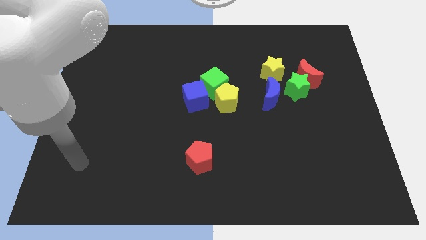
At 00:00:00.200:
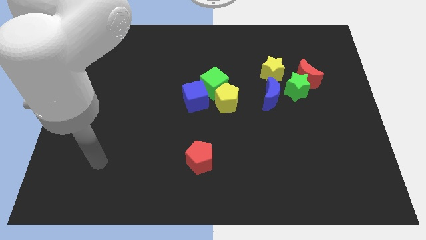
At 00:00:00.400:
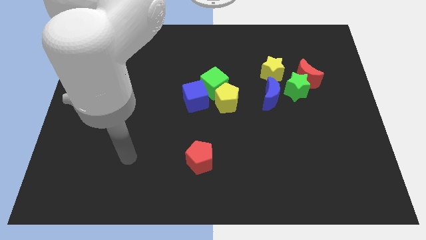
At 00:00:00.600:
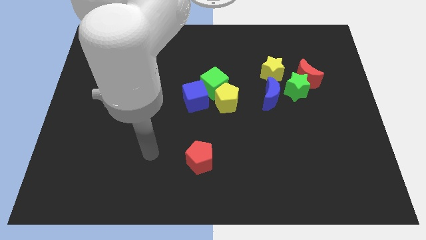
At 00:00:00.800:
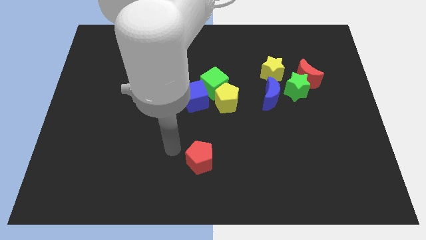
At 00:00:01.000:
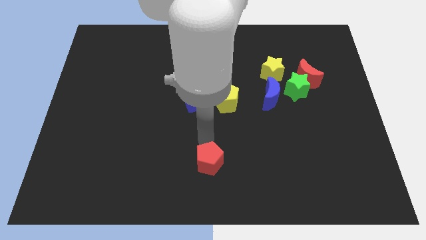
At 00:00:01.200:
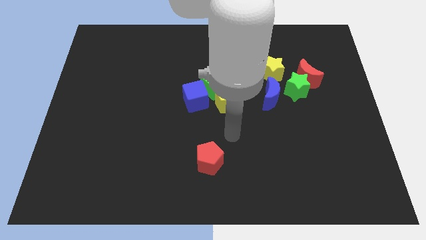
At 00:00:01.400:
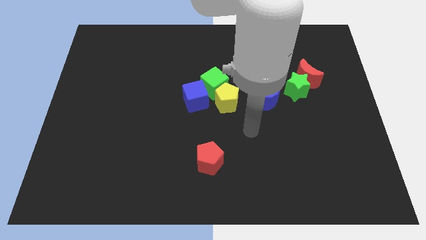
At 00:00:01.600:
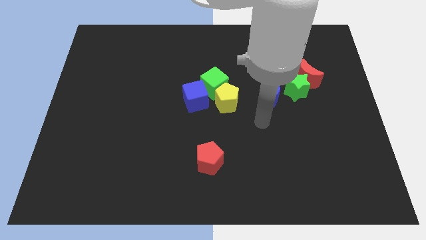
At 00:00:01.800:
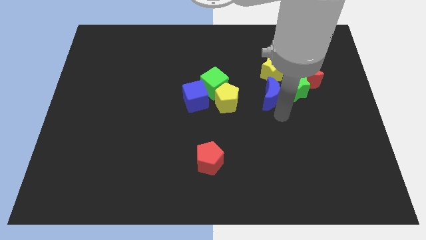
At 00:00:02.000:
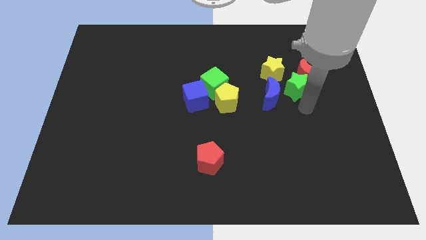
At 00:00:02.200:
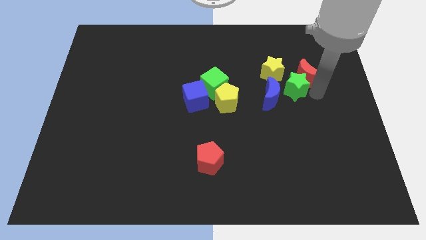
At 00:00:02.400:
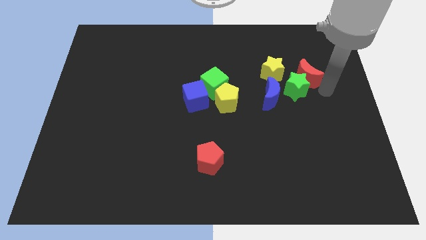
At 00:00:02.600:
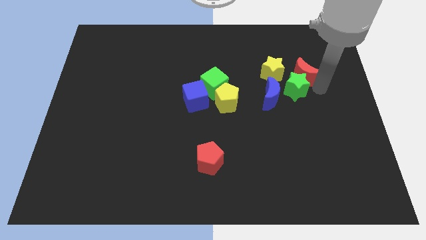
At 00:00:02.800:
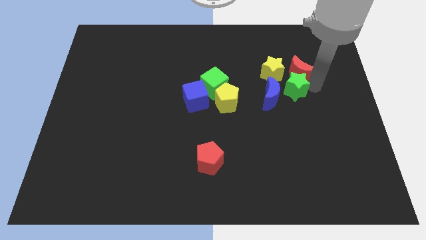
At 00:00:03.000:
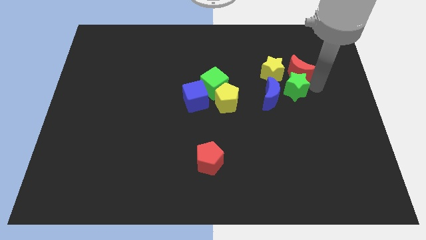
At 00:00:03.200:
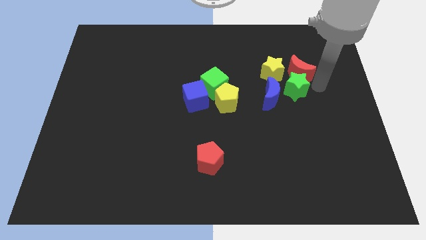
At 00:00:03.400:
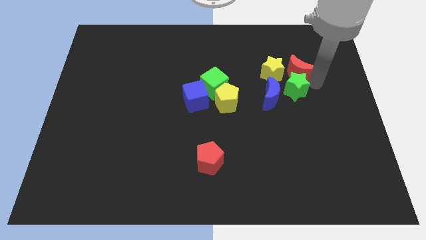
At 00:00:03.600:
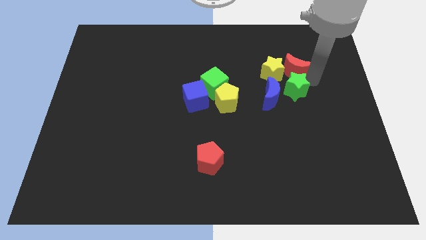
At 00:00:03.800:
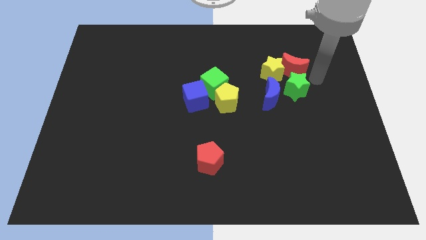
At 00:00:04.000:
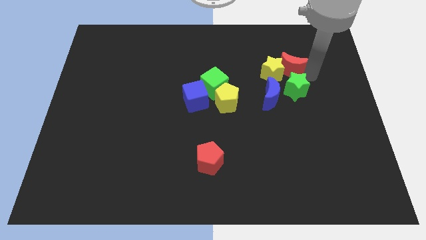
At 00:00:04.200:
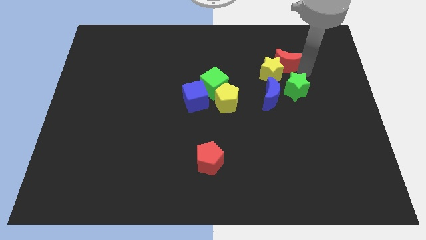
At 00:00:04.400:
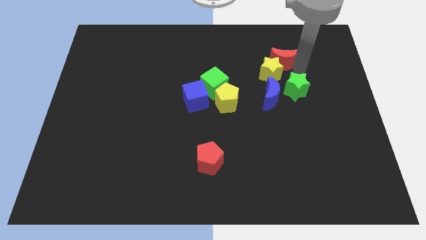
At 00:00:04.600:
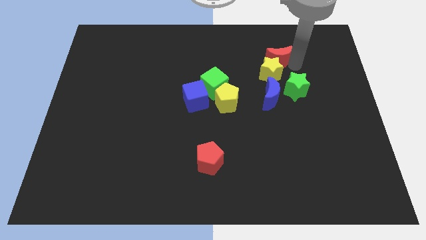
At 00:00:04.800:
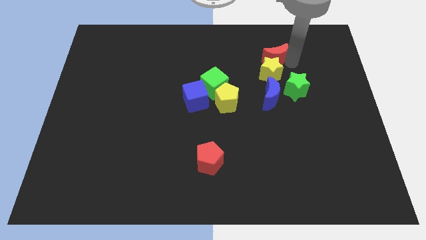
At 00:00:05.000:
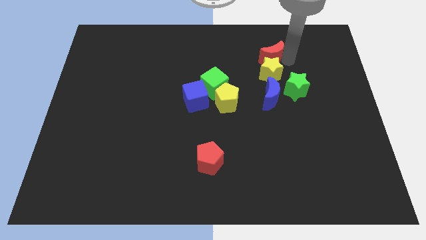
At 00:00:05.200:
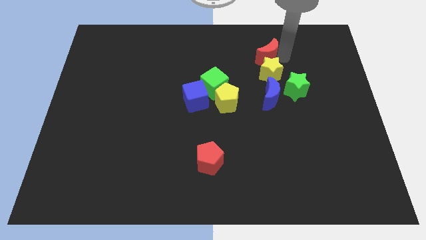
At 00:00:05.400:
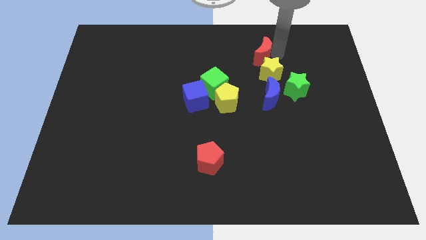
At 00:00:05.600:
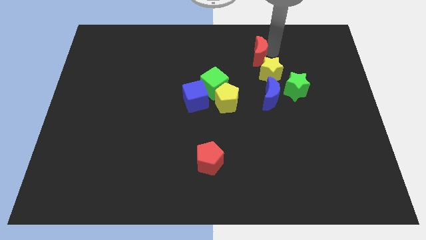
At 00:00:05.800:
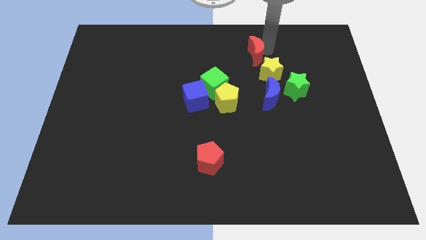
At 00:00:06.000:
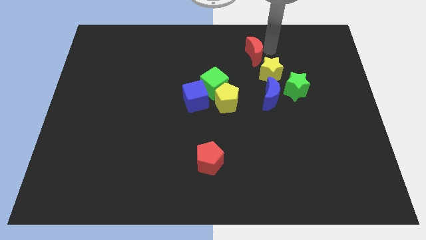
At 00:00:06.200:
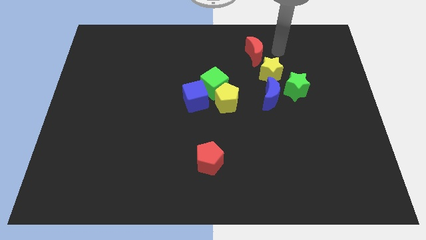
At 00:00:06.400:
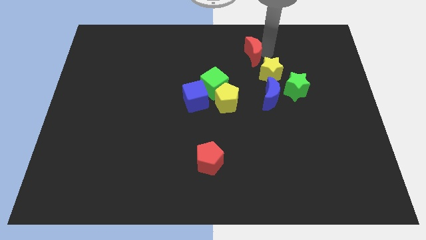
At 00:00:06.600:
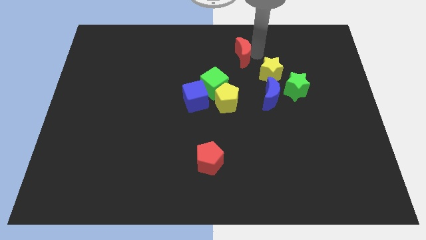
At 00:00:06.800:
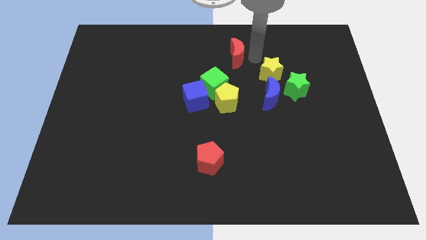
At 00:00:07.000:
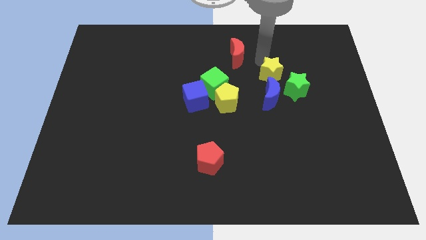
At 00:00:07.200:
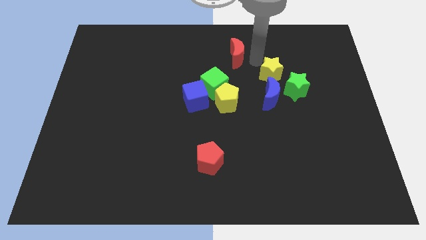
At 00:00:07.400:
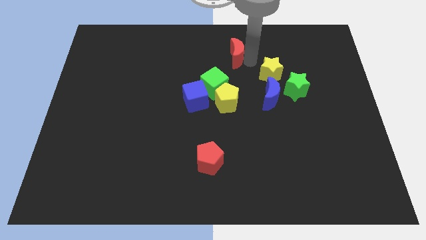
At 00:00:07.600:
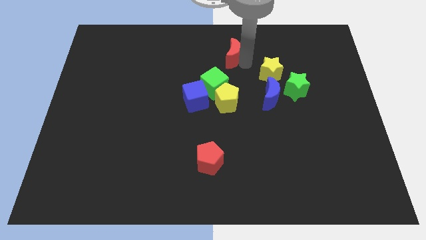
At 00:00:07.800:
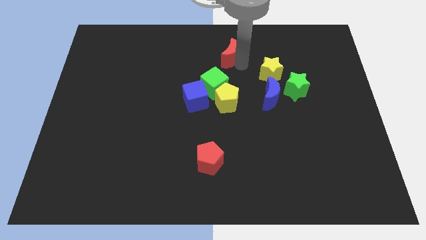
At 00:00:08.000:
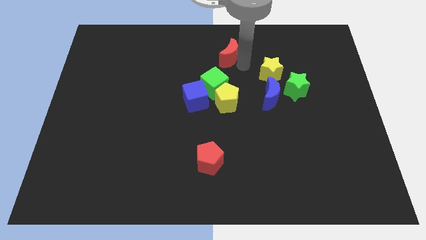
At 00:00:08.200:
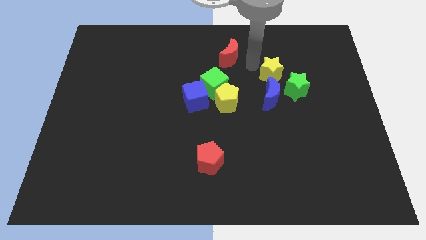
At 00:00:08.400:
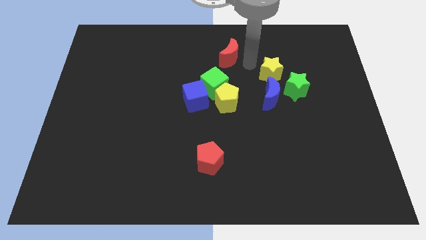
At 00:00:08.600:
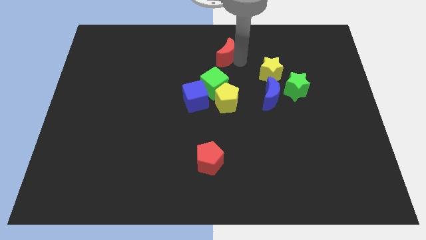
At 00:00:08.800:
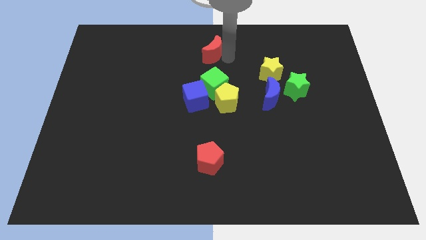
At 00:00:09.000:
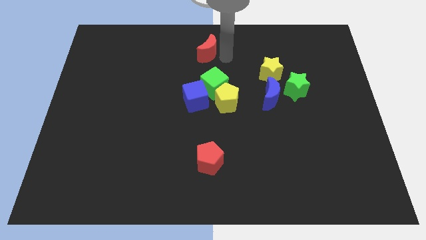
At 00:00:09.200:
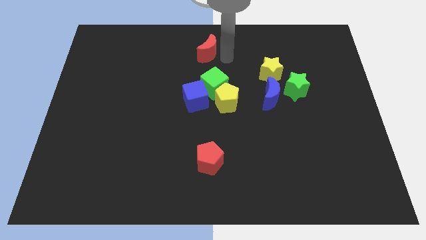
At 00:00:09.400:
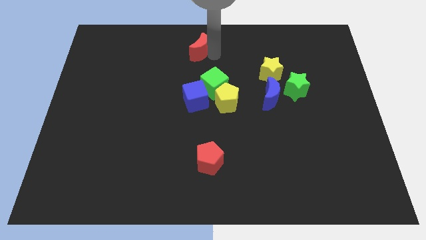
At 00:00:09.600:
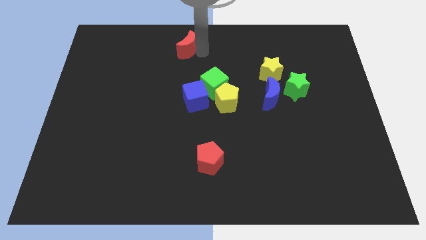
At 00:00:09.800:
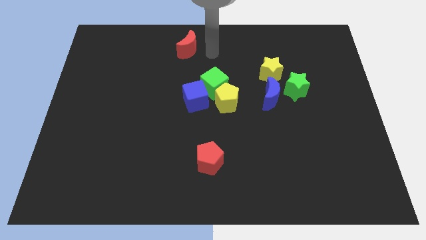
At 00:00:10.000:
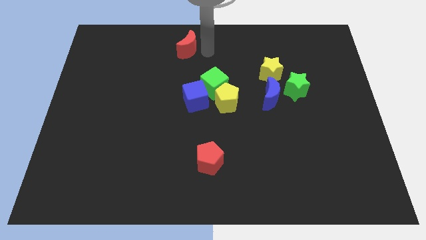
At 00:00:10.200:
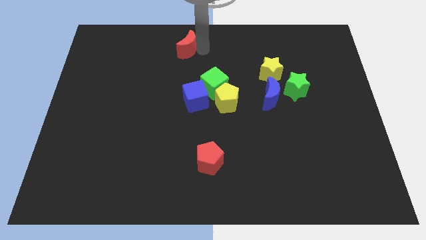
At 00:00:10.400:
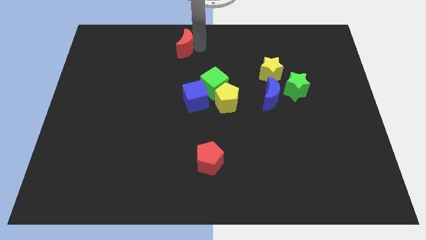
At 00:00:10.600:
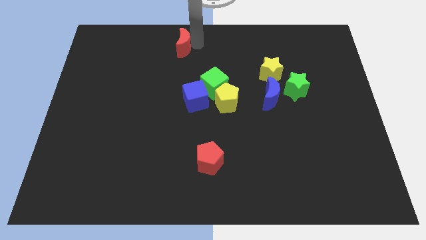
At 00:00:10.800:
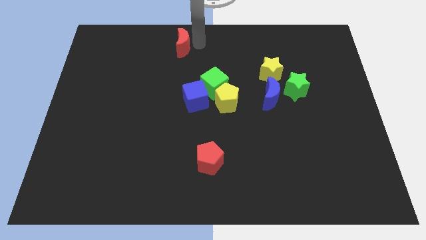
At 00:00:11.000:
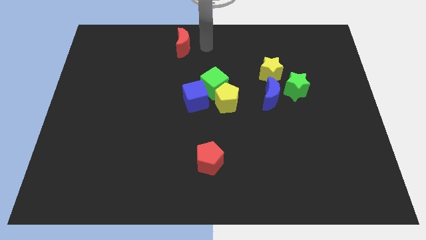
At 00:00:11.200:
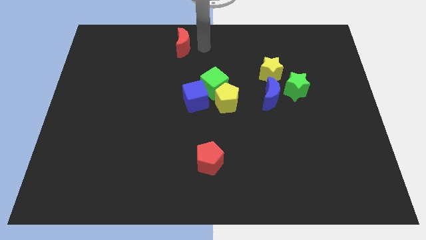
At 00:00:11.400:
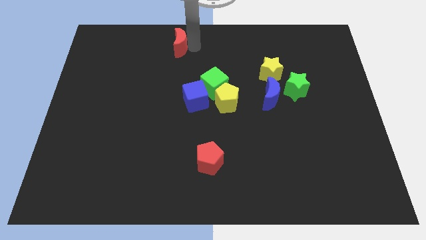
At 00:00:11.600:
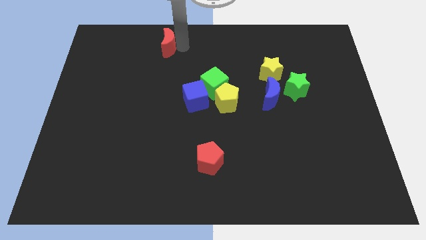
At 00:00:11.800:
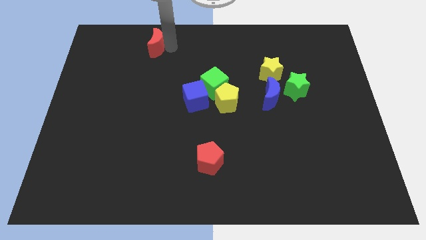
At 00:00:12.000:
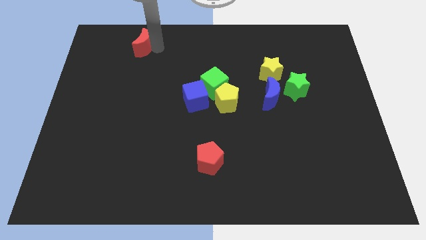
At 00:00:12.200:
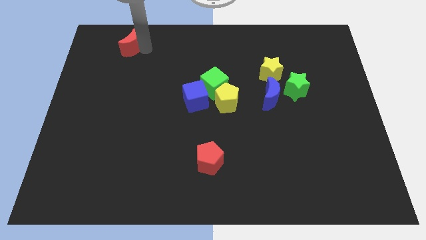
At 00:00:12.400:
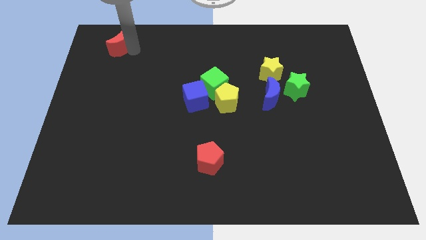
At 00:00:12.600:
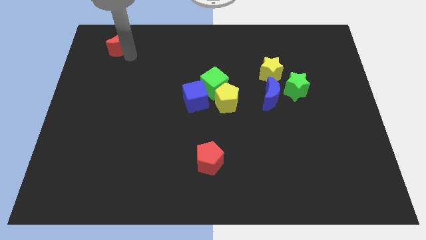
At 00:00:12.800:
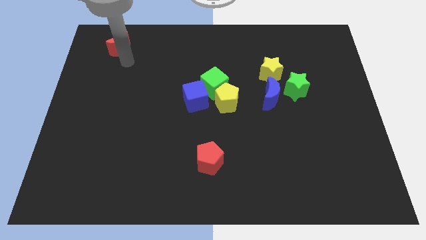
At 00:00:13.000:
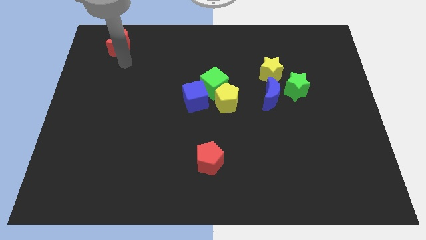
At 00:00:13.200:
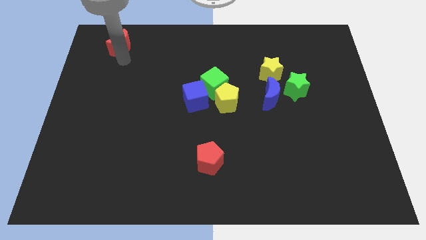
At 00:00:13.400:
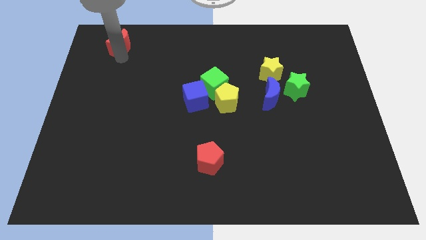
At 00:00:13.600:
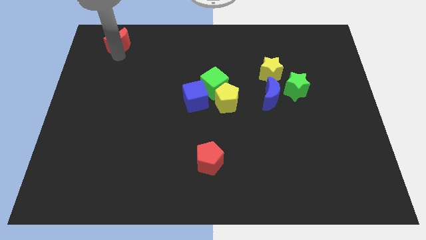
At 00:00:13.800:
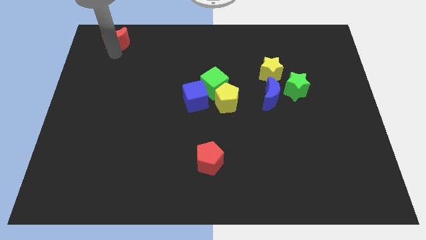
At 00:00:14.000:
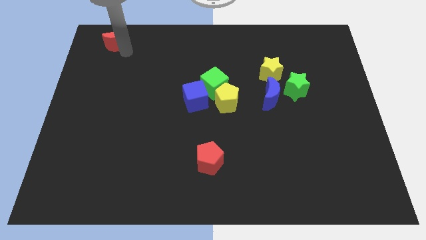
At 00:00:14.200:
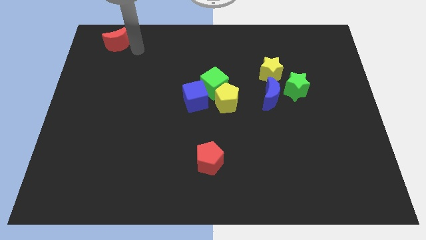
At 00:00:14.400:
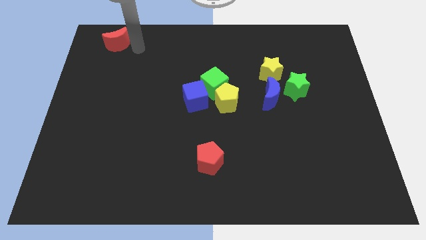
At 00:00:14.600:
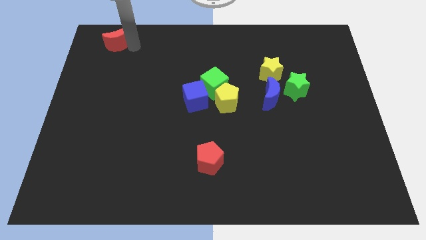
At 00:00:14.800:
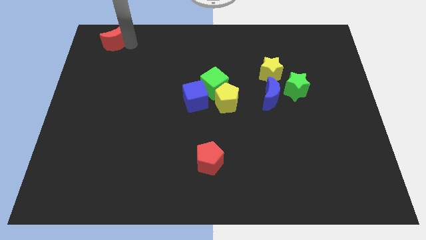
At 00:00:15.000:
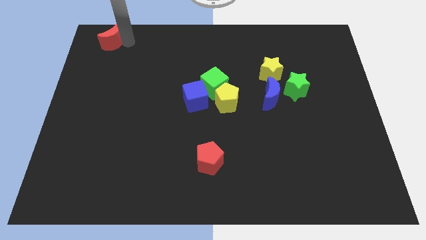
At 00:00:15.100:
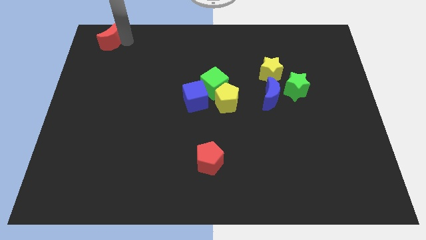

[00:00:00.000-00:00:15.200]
put the red moon to the upper left corner
